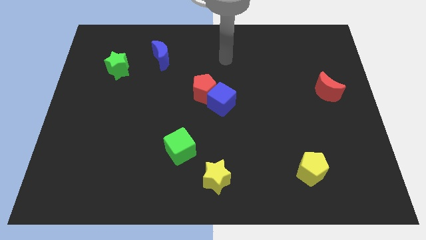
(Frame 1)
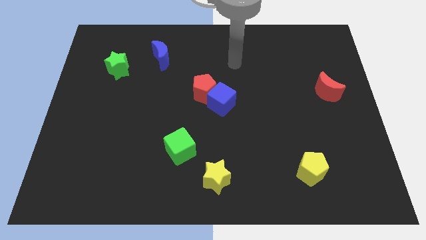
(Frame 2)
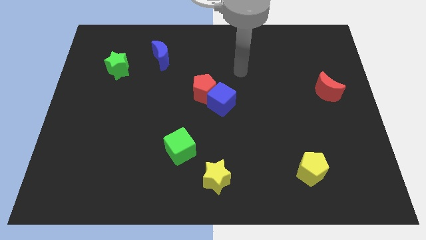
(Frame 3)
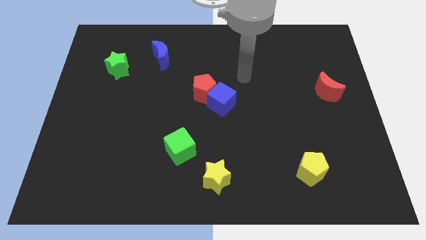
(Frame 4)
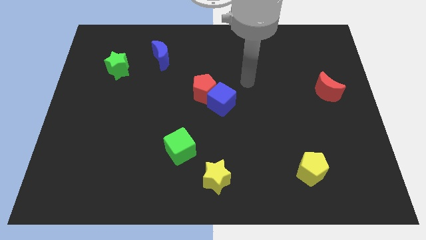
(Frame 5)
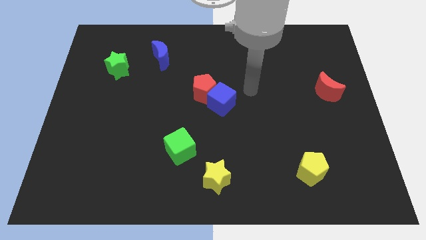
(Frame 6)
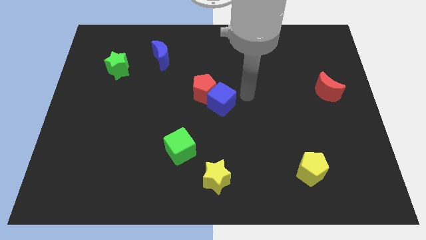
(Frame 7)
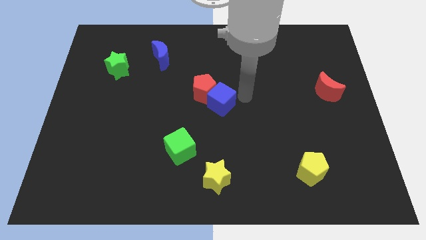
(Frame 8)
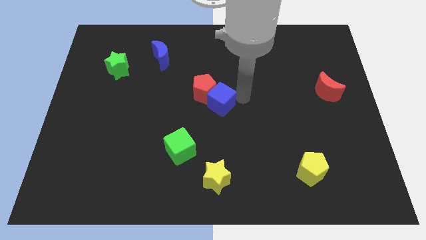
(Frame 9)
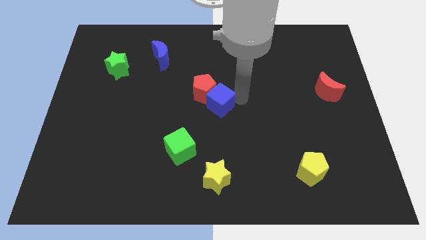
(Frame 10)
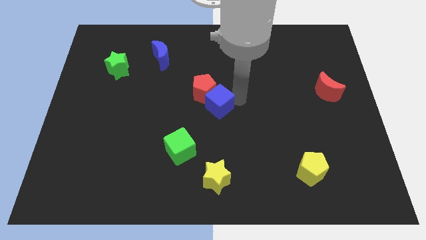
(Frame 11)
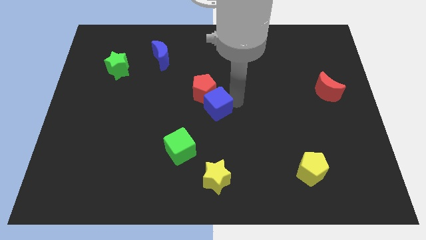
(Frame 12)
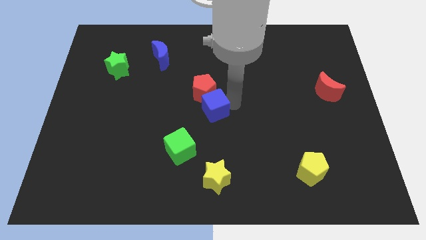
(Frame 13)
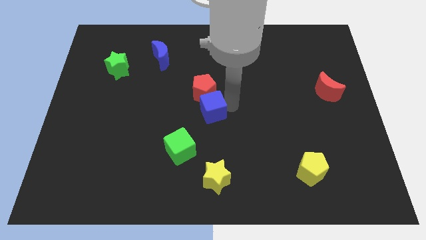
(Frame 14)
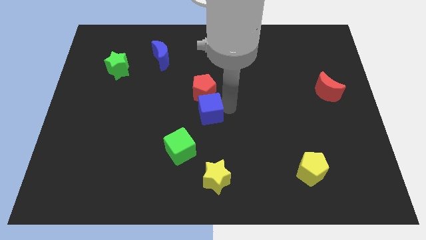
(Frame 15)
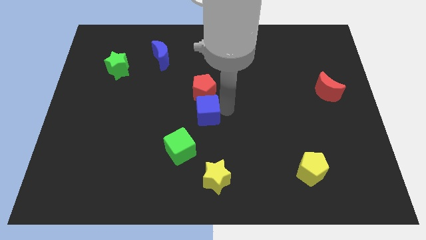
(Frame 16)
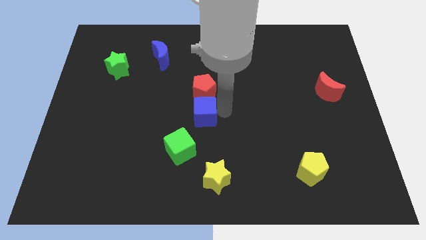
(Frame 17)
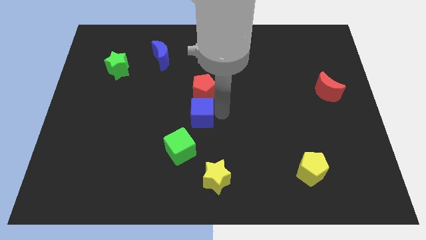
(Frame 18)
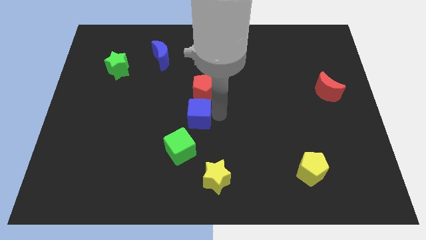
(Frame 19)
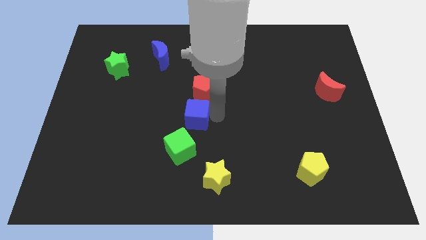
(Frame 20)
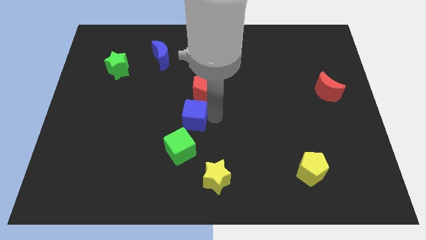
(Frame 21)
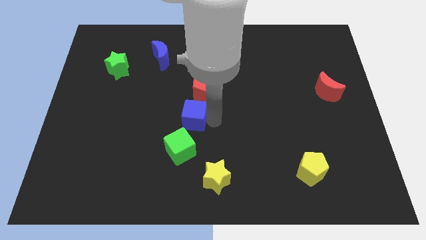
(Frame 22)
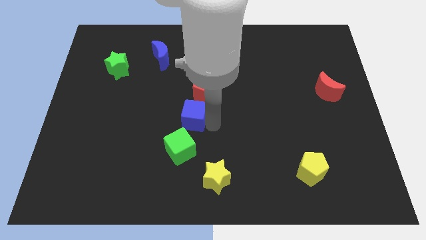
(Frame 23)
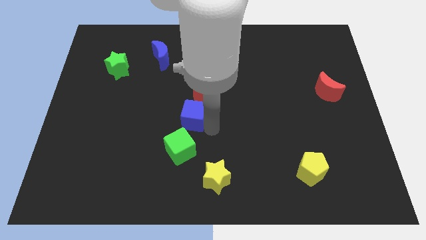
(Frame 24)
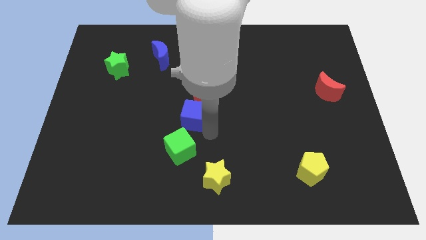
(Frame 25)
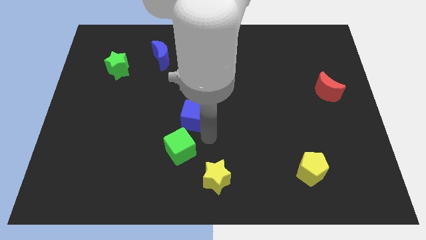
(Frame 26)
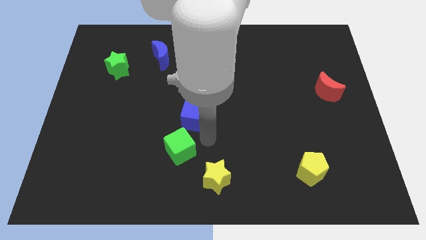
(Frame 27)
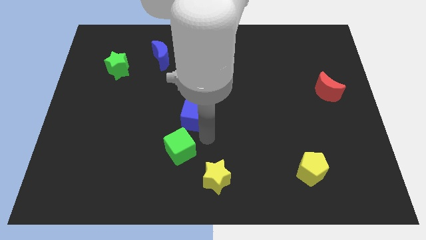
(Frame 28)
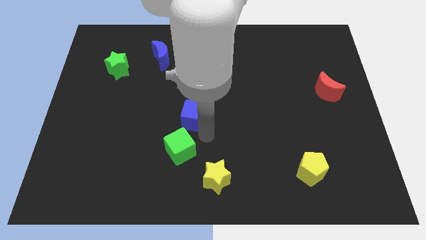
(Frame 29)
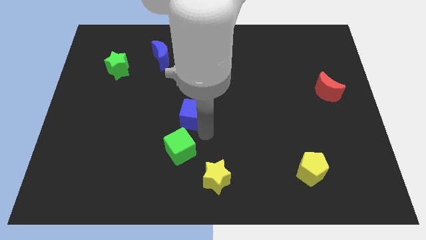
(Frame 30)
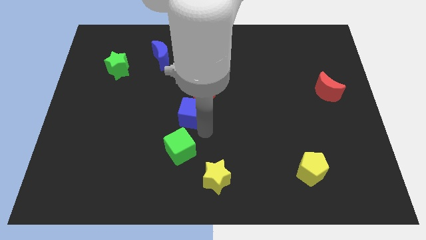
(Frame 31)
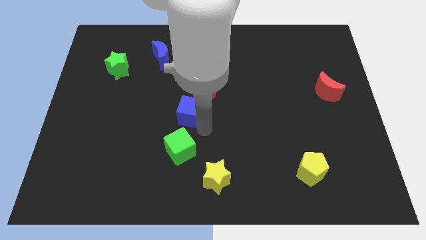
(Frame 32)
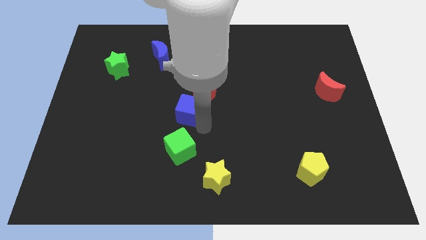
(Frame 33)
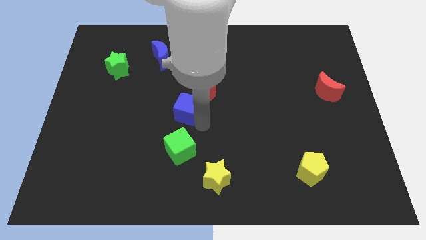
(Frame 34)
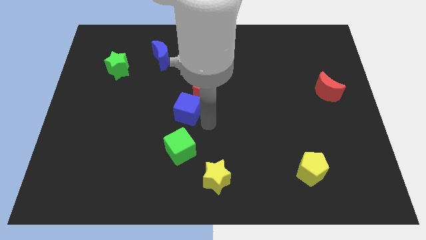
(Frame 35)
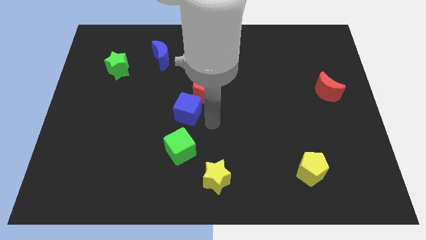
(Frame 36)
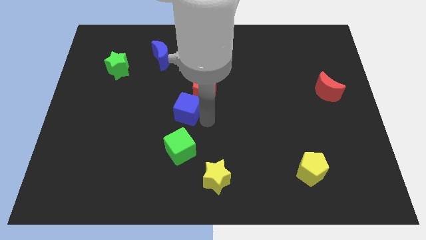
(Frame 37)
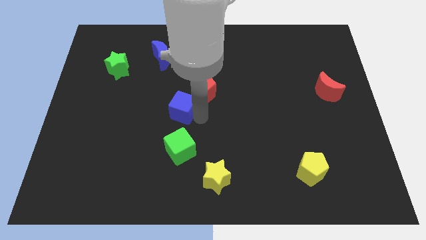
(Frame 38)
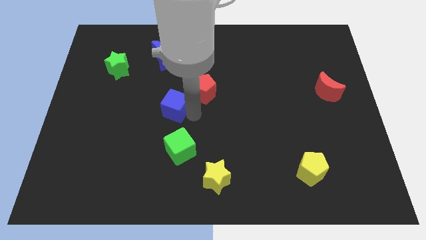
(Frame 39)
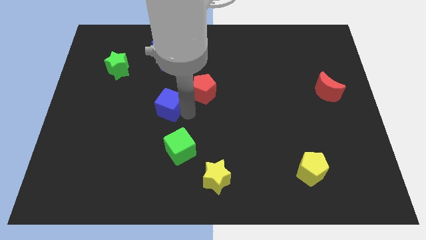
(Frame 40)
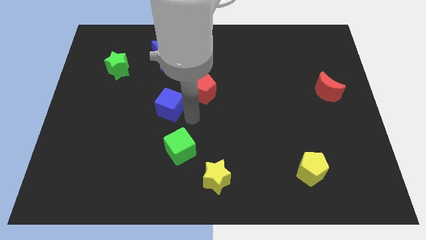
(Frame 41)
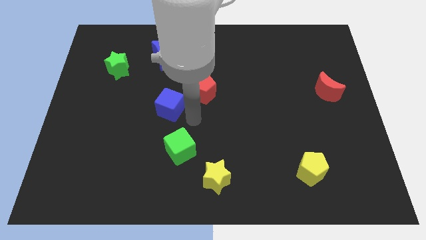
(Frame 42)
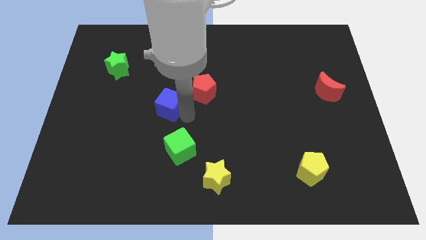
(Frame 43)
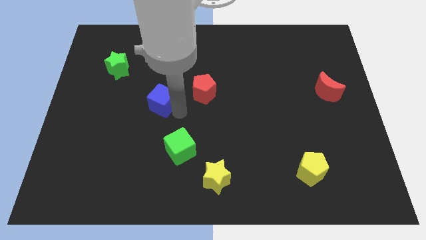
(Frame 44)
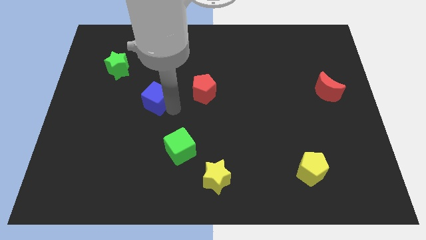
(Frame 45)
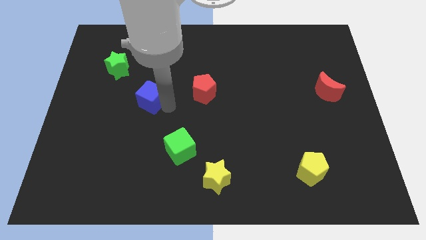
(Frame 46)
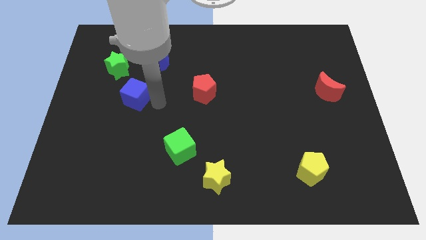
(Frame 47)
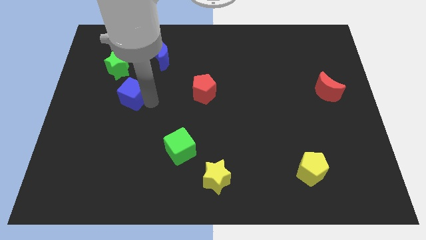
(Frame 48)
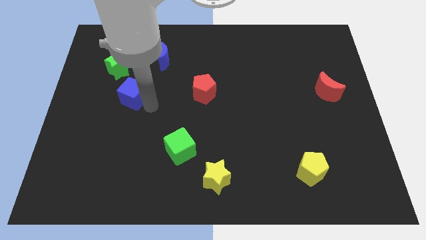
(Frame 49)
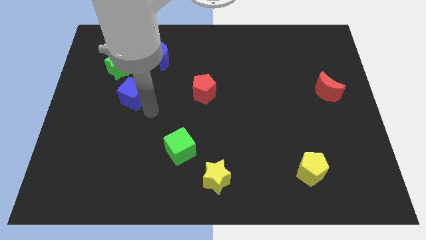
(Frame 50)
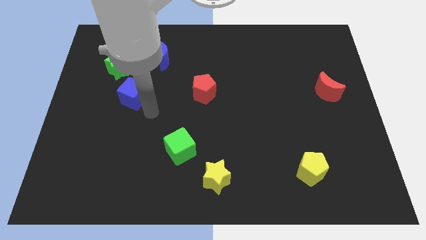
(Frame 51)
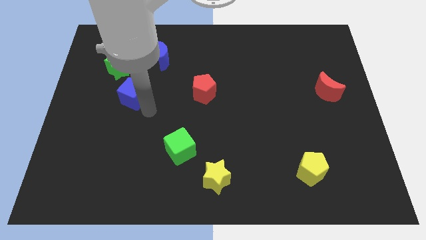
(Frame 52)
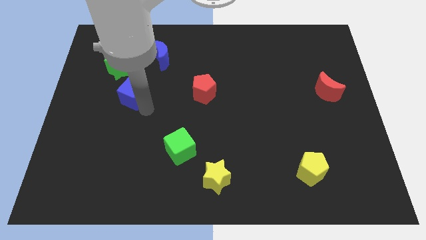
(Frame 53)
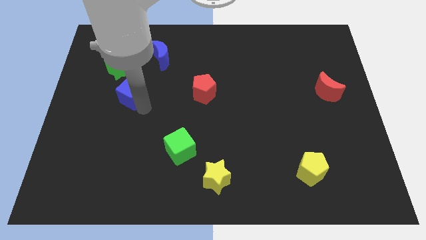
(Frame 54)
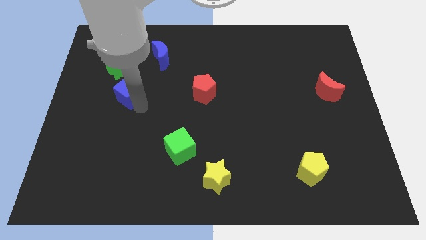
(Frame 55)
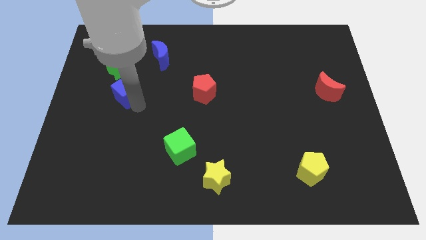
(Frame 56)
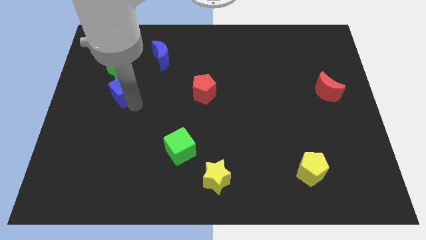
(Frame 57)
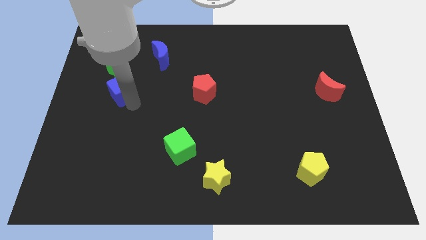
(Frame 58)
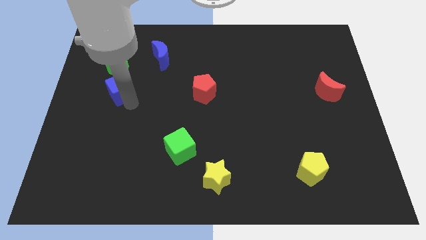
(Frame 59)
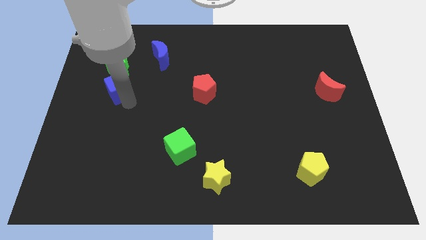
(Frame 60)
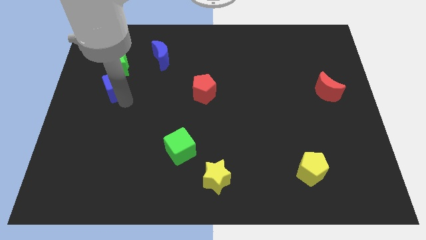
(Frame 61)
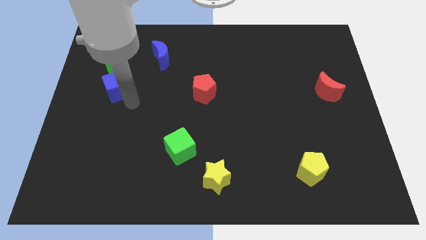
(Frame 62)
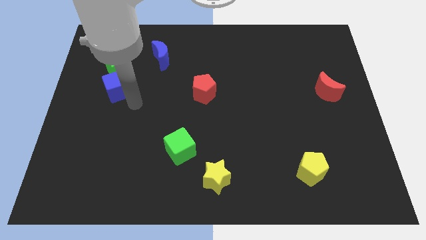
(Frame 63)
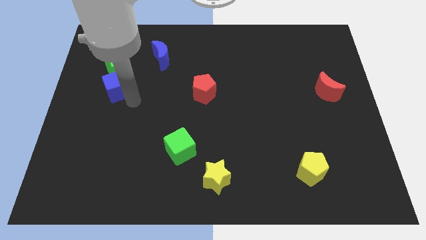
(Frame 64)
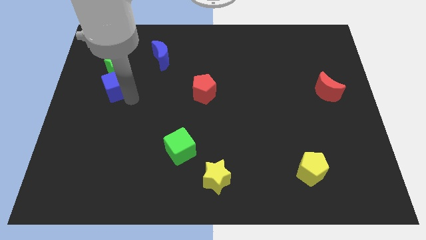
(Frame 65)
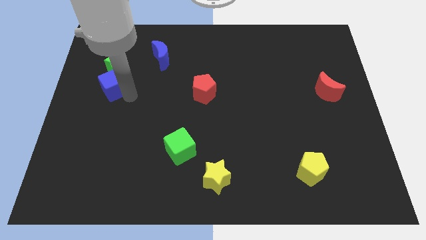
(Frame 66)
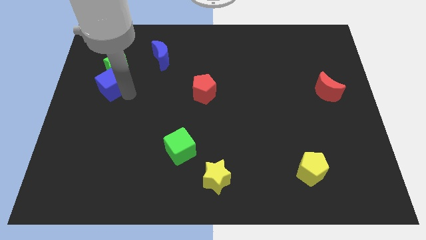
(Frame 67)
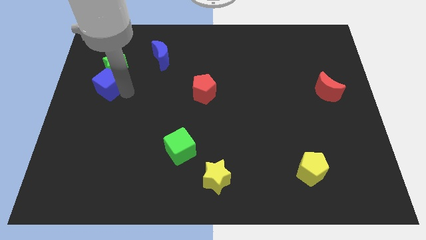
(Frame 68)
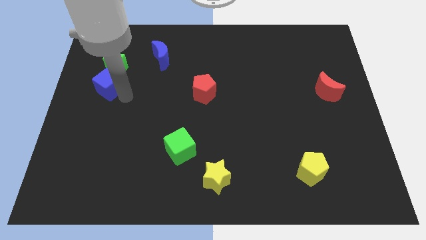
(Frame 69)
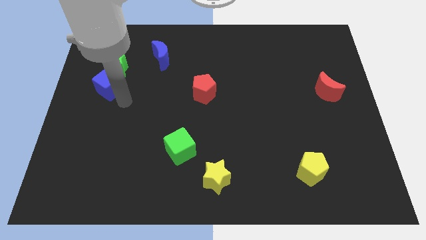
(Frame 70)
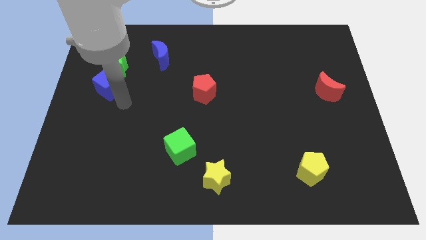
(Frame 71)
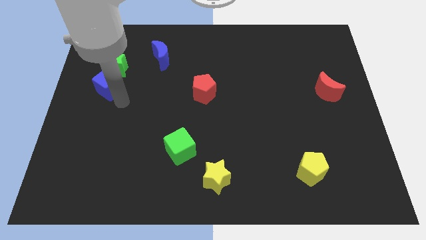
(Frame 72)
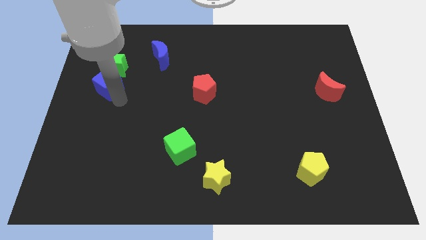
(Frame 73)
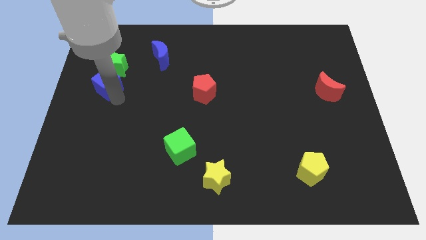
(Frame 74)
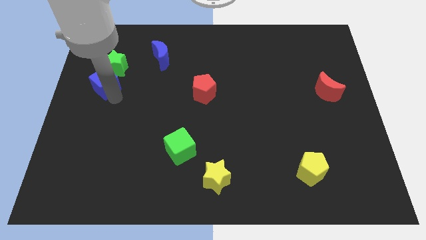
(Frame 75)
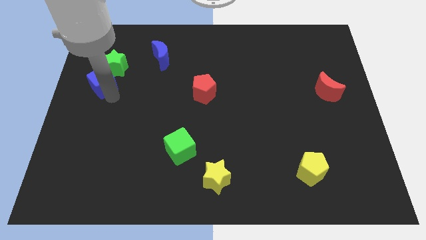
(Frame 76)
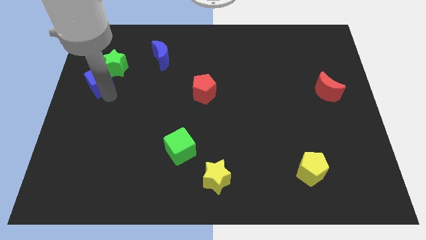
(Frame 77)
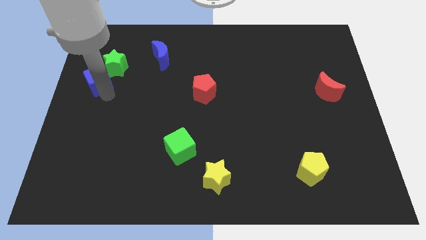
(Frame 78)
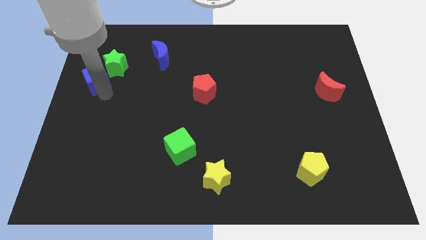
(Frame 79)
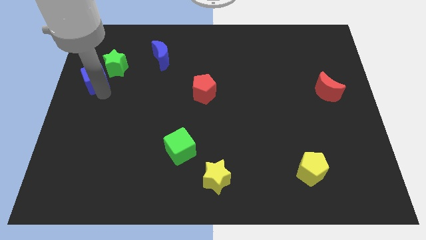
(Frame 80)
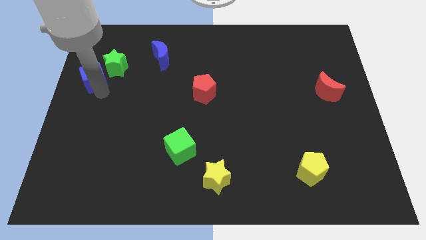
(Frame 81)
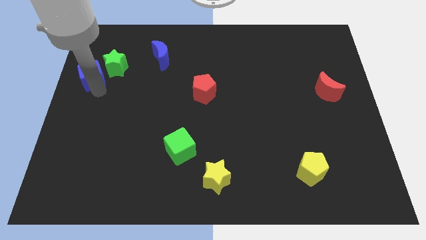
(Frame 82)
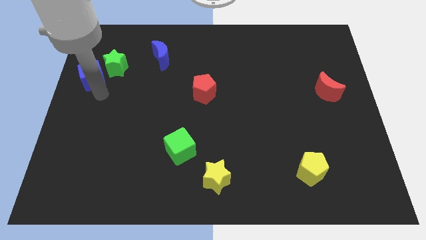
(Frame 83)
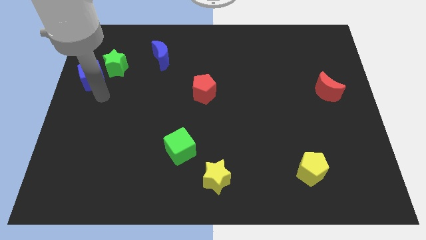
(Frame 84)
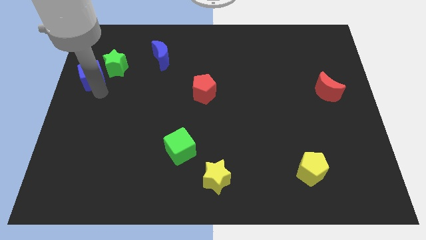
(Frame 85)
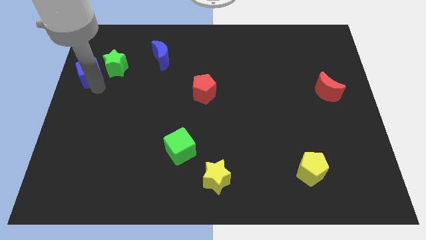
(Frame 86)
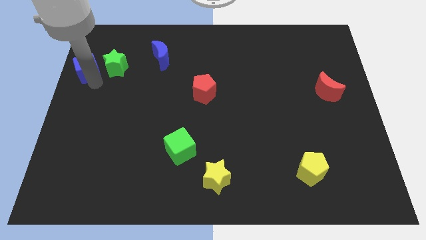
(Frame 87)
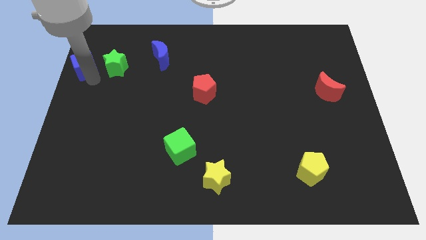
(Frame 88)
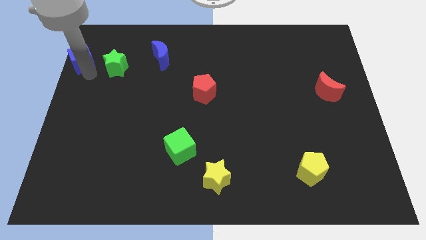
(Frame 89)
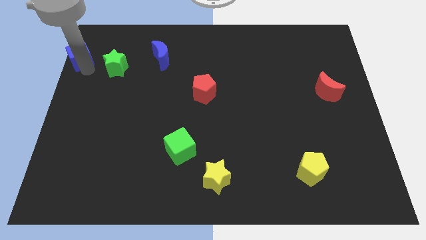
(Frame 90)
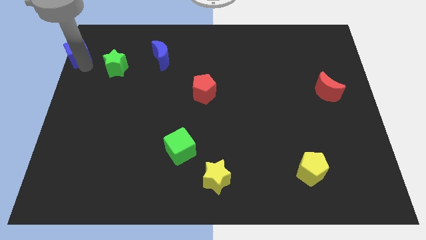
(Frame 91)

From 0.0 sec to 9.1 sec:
put the blue cube to the top left
